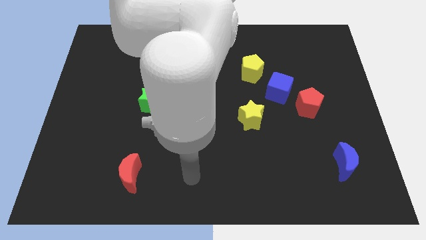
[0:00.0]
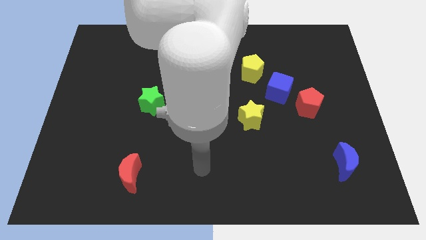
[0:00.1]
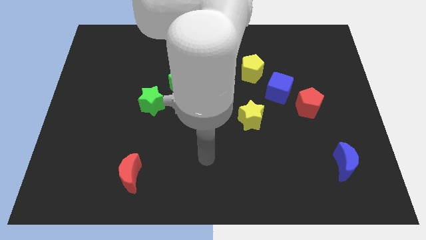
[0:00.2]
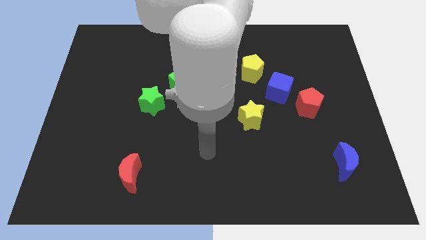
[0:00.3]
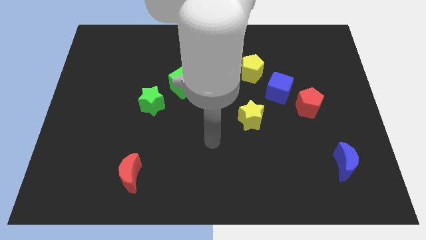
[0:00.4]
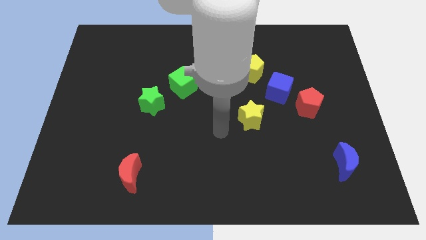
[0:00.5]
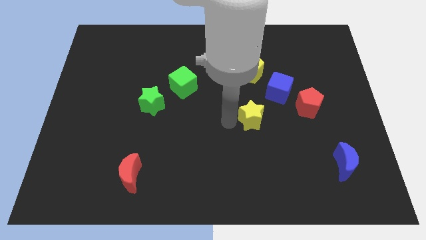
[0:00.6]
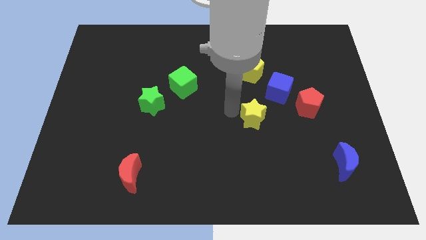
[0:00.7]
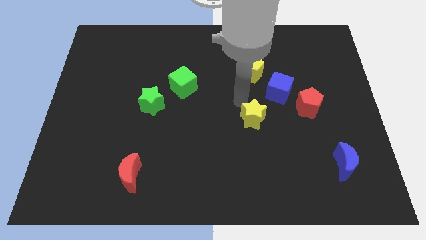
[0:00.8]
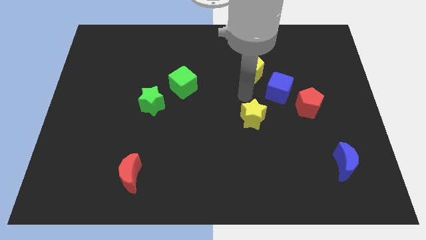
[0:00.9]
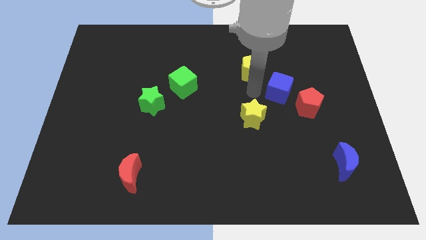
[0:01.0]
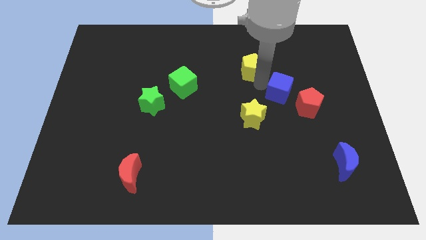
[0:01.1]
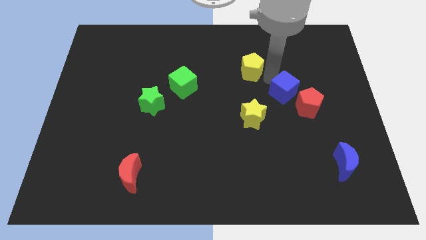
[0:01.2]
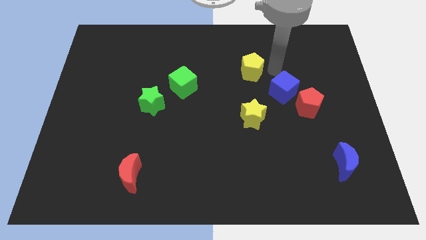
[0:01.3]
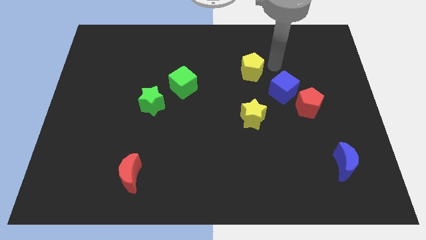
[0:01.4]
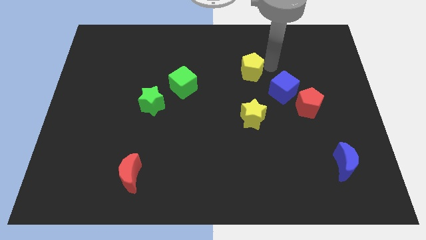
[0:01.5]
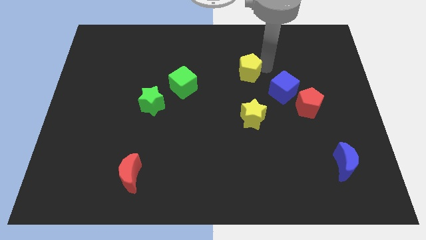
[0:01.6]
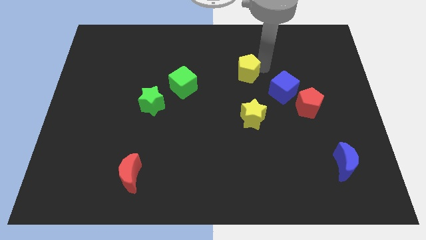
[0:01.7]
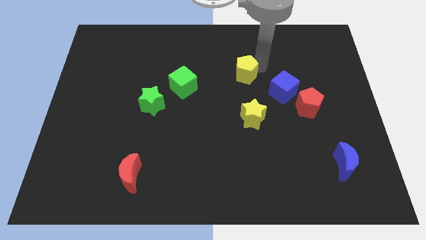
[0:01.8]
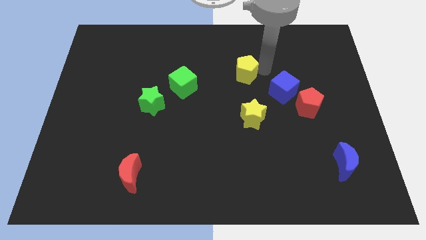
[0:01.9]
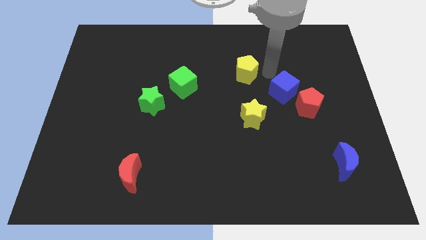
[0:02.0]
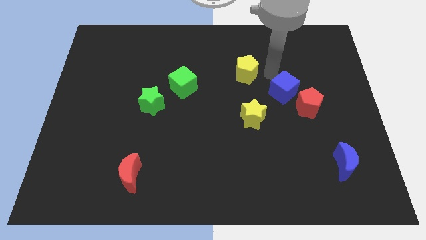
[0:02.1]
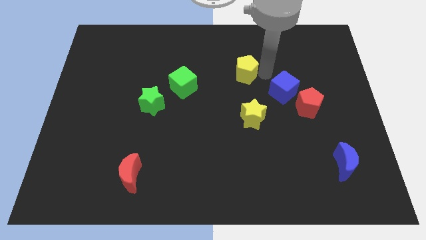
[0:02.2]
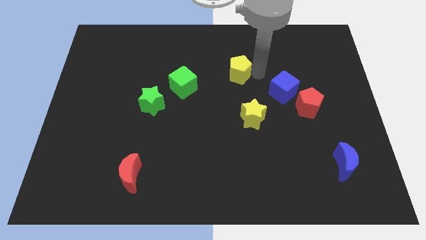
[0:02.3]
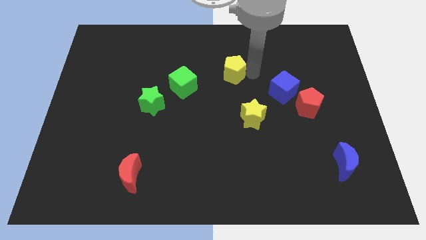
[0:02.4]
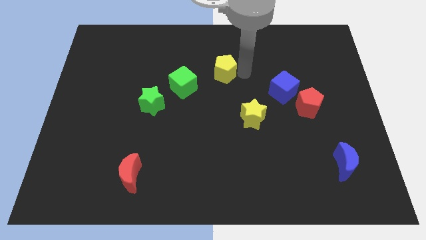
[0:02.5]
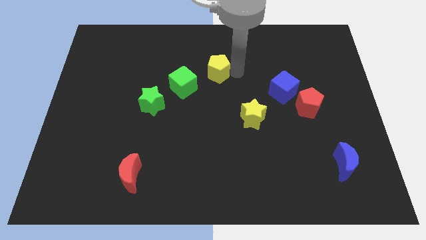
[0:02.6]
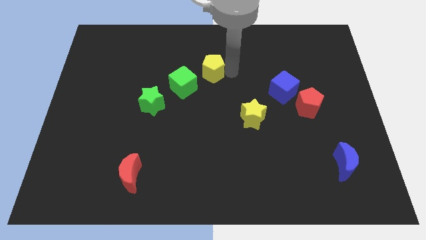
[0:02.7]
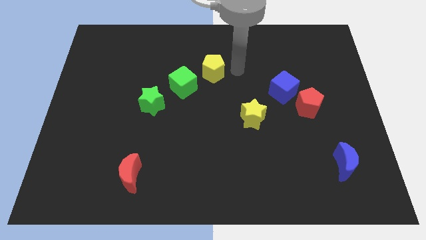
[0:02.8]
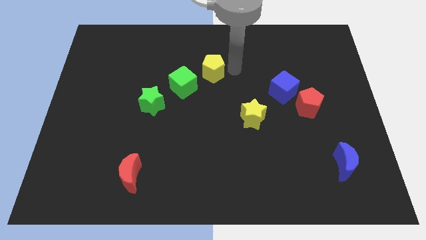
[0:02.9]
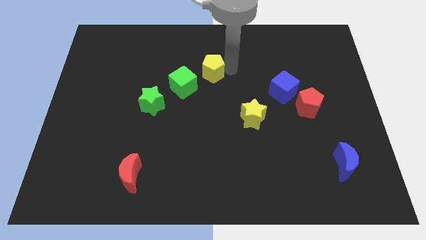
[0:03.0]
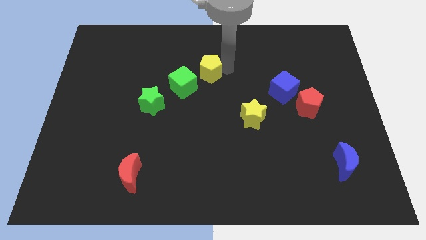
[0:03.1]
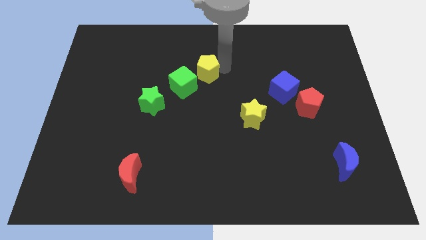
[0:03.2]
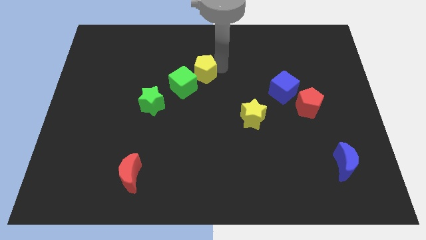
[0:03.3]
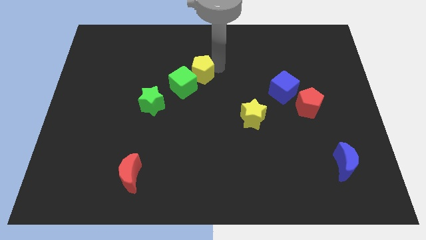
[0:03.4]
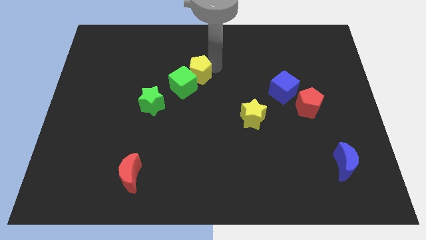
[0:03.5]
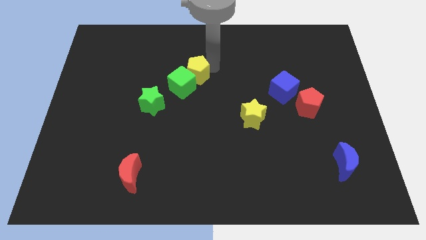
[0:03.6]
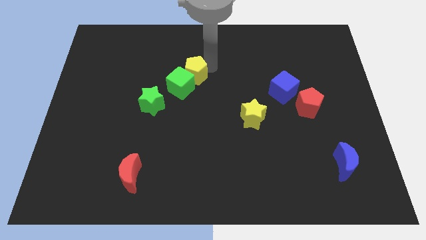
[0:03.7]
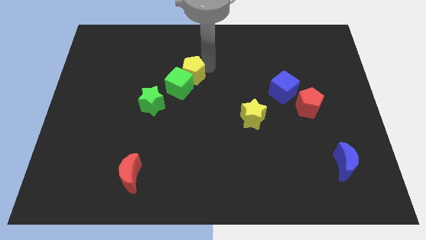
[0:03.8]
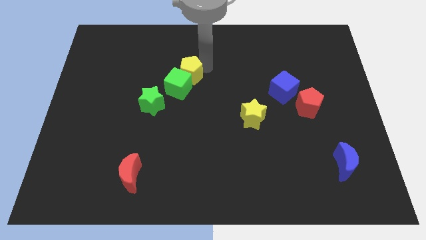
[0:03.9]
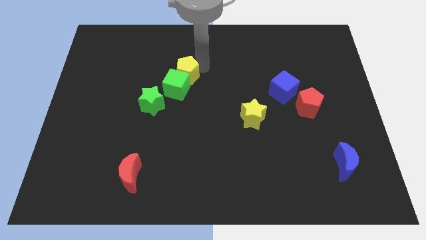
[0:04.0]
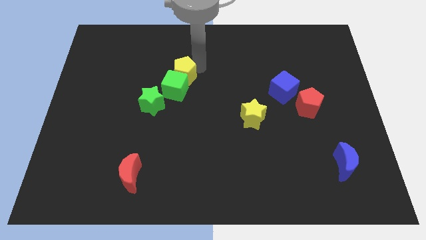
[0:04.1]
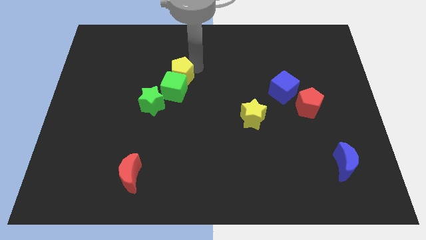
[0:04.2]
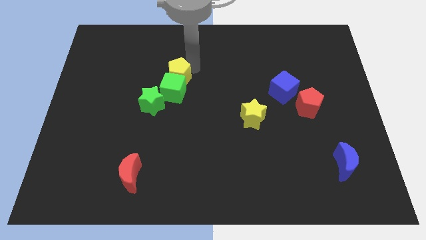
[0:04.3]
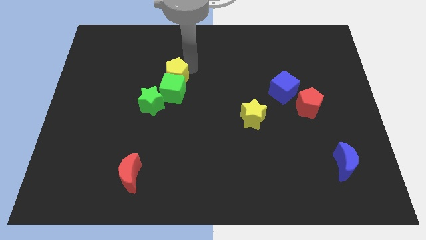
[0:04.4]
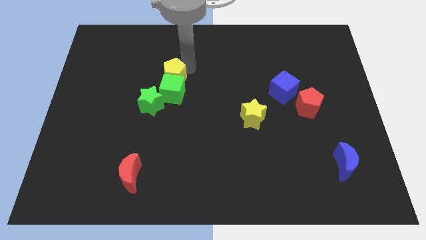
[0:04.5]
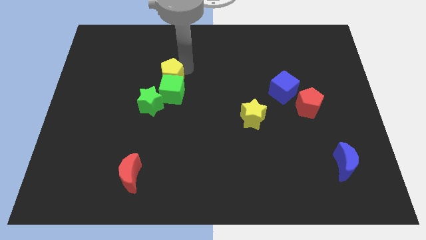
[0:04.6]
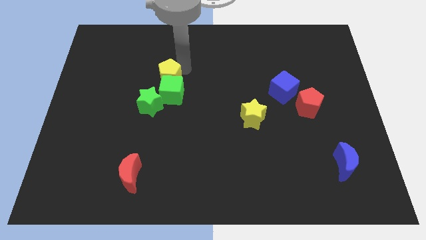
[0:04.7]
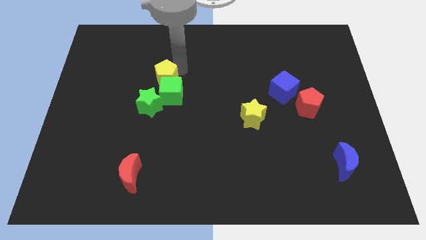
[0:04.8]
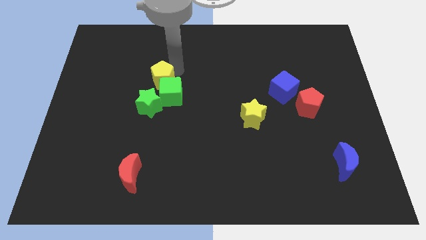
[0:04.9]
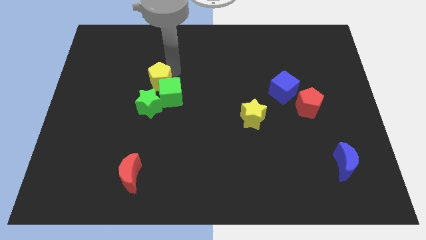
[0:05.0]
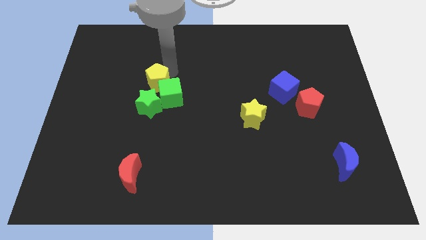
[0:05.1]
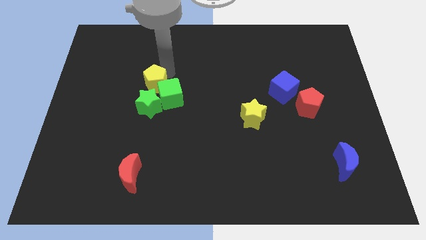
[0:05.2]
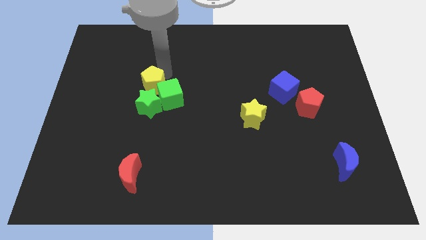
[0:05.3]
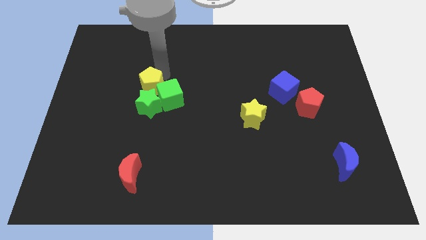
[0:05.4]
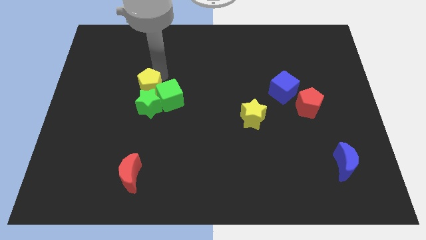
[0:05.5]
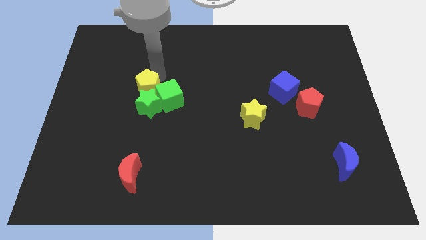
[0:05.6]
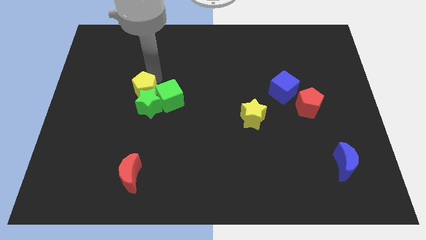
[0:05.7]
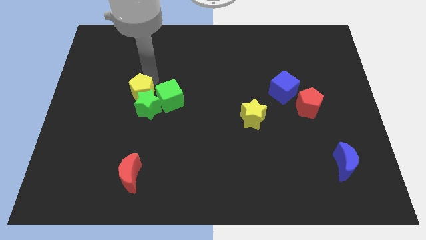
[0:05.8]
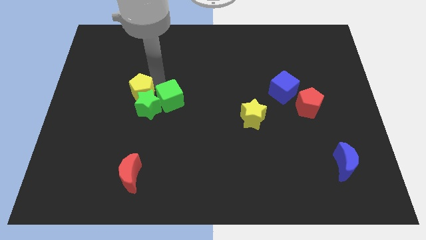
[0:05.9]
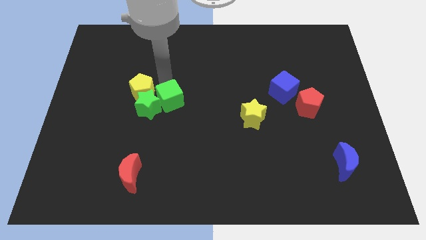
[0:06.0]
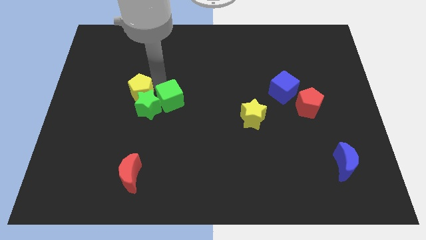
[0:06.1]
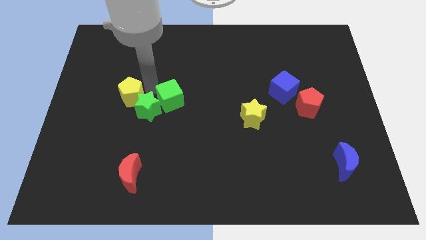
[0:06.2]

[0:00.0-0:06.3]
push the yellow pentagon left of the green star
